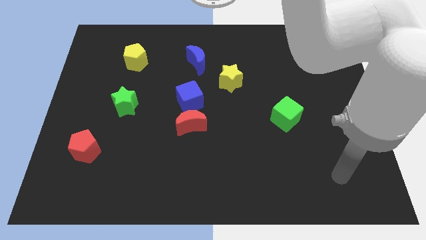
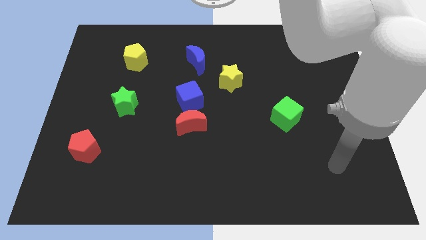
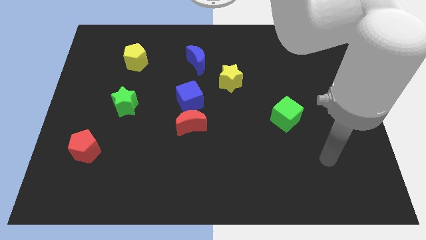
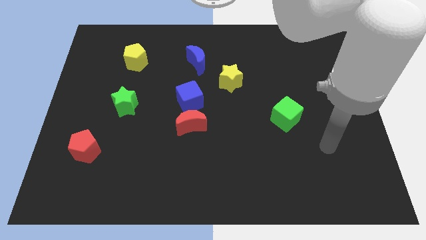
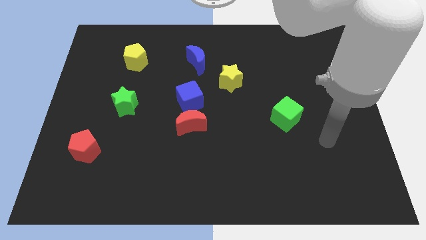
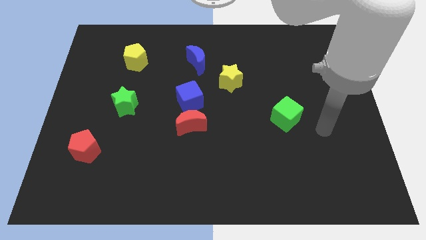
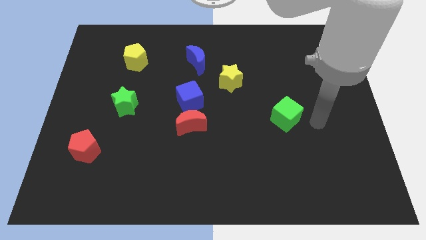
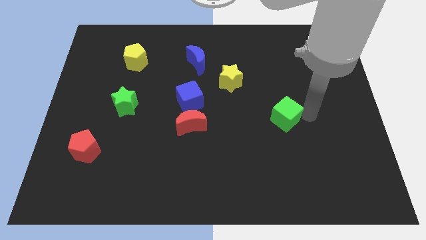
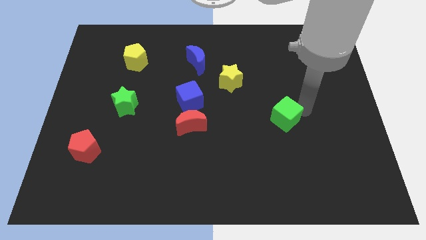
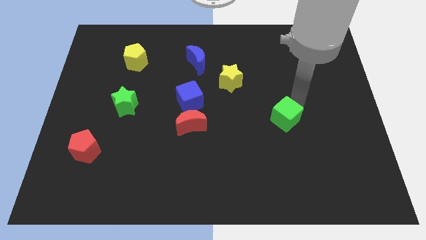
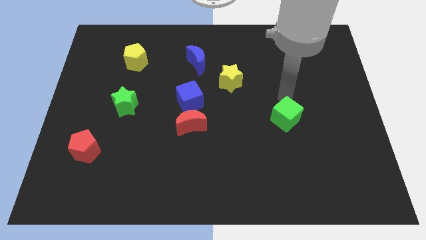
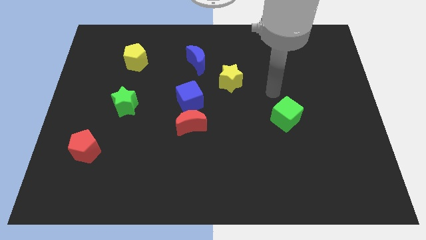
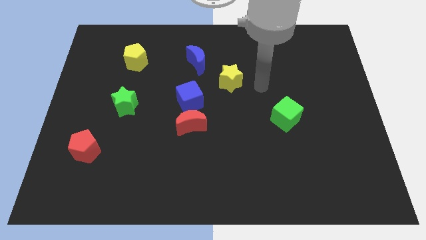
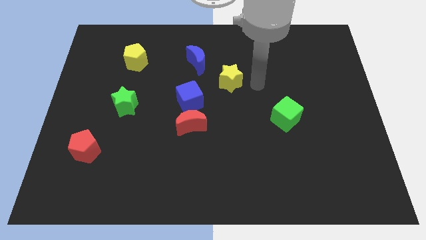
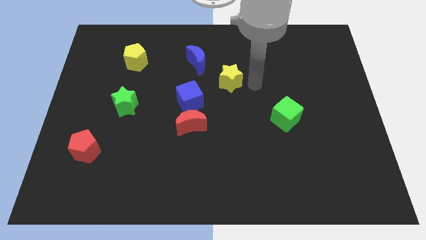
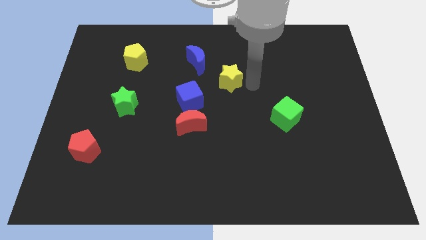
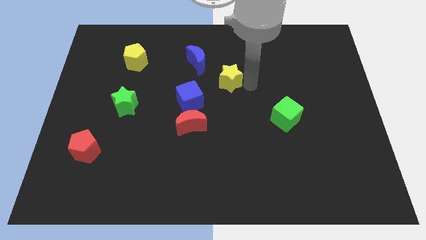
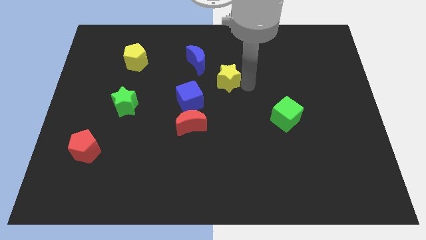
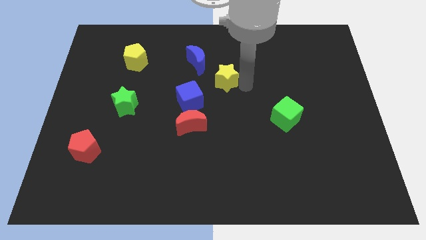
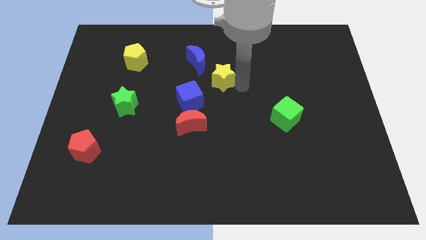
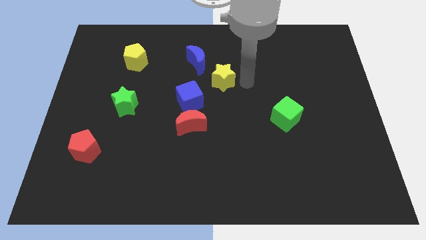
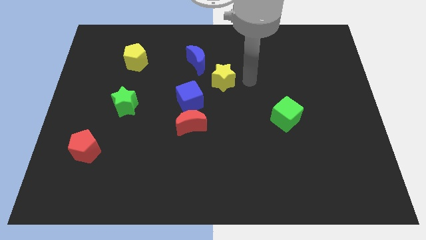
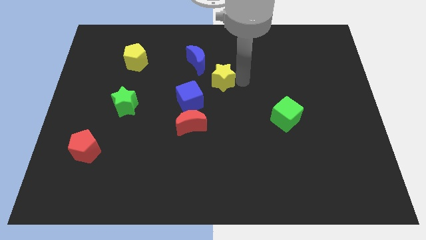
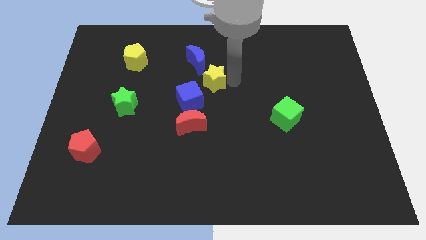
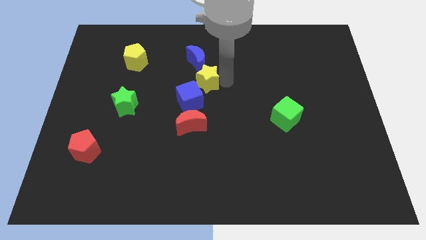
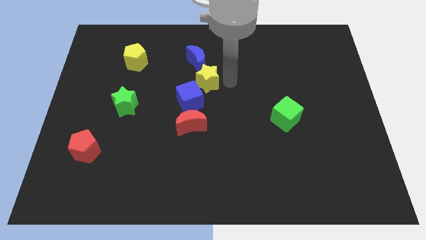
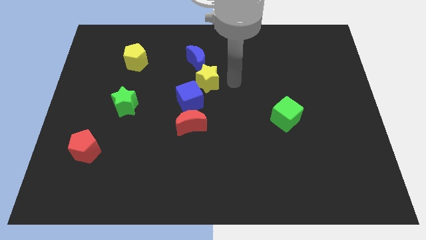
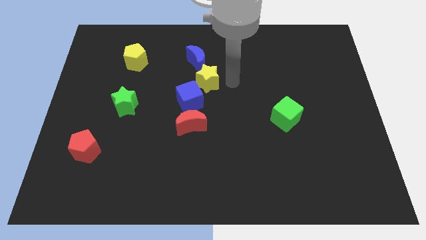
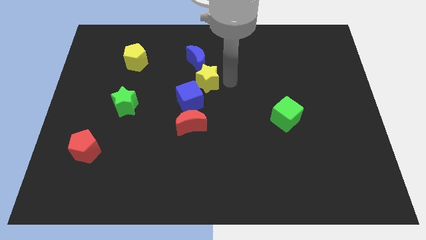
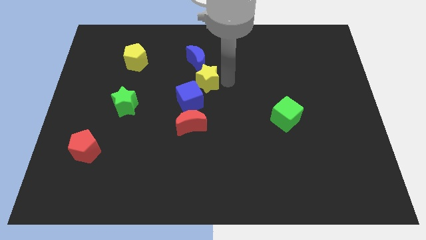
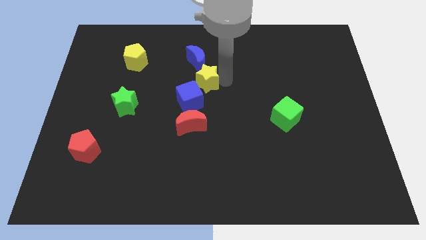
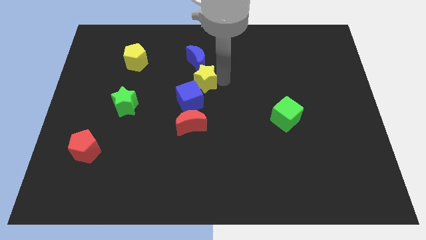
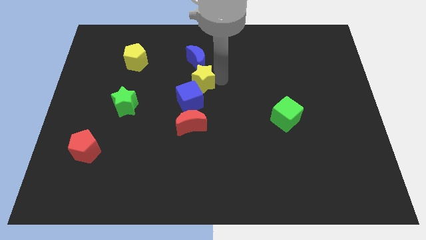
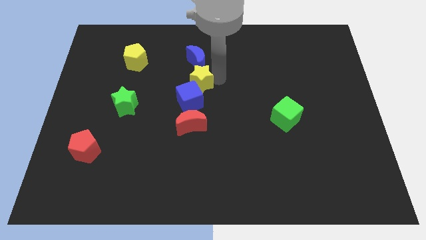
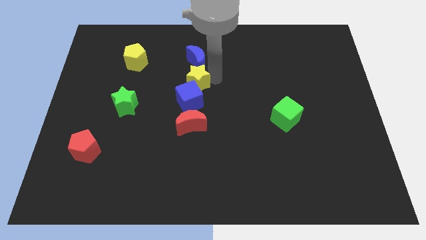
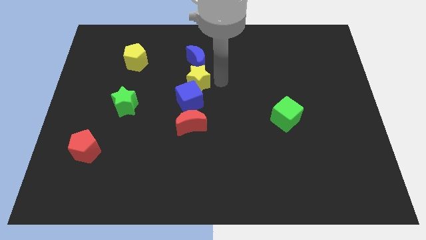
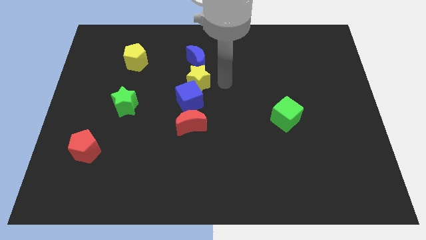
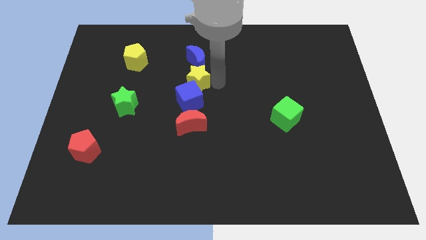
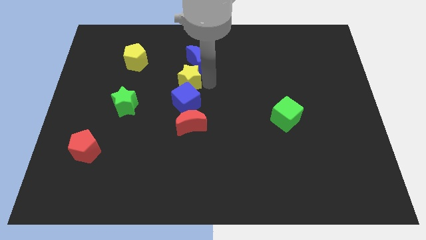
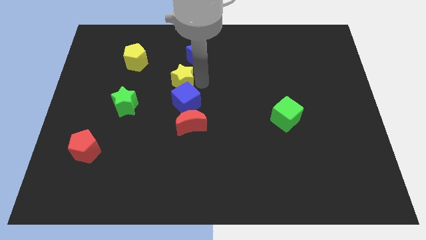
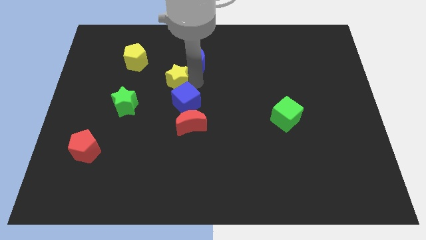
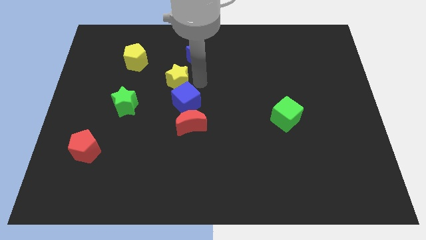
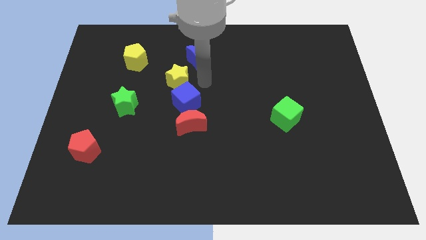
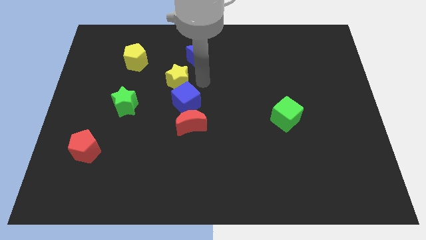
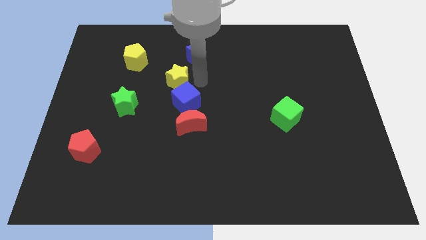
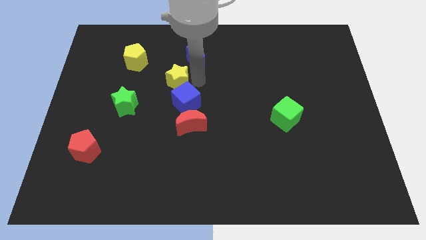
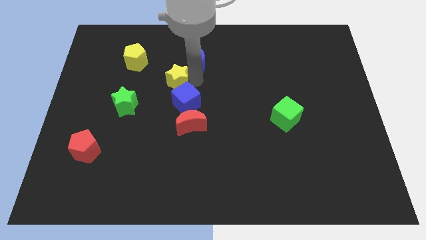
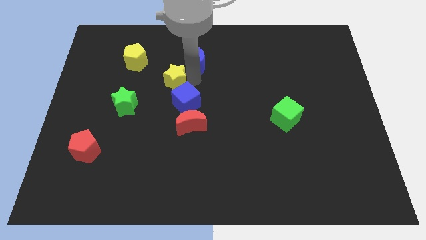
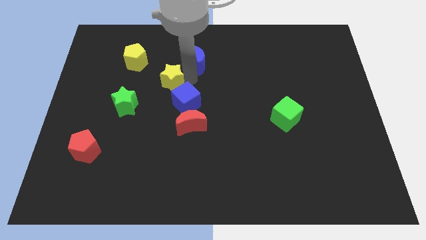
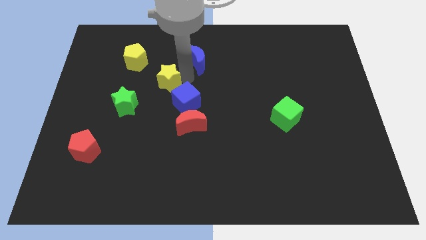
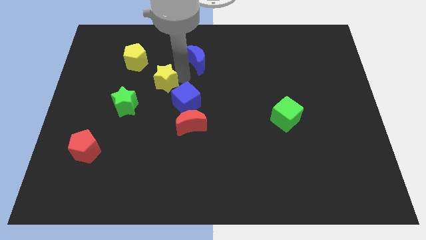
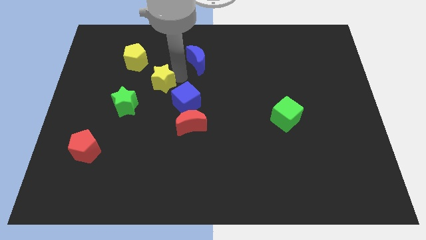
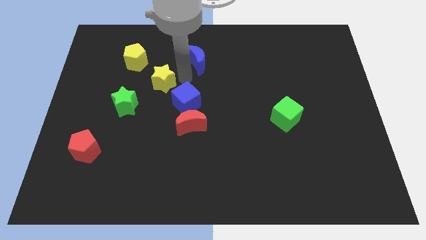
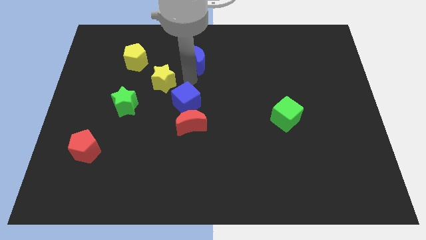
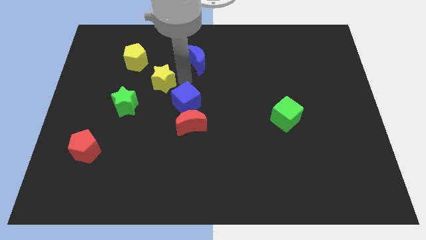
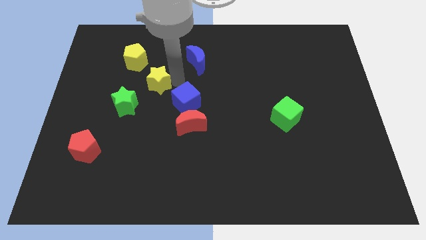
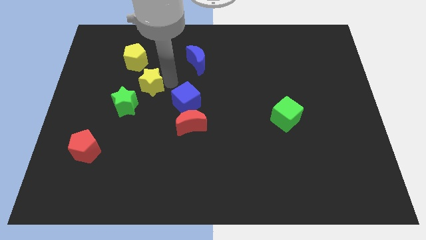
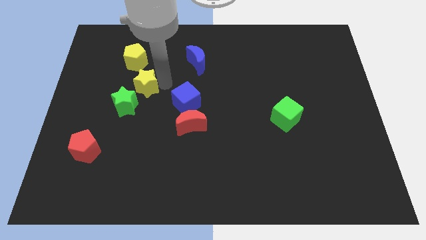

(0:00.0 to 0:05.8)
move the yellow star left

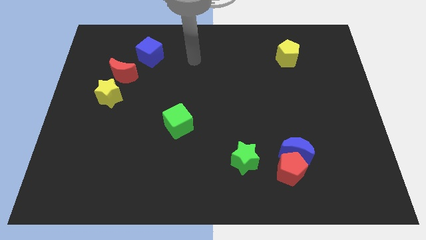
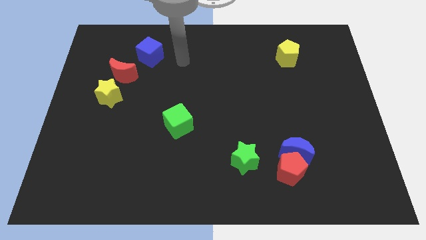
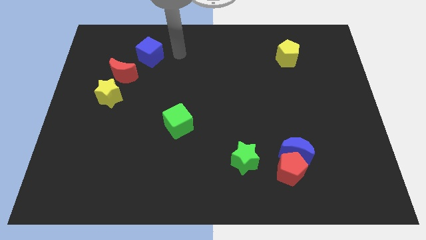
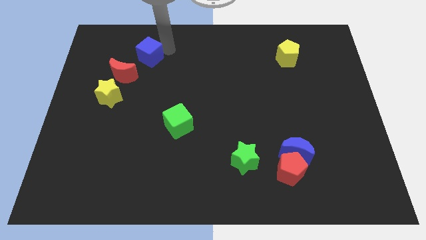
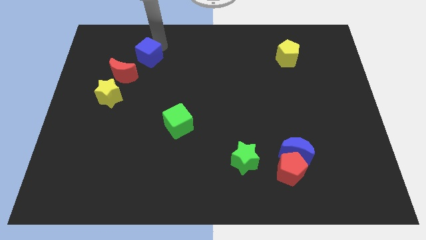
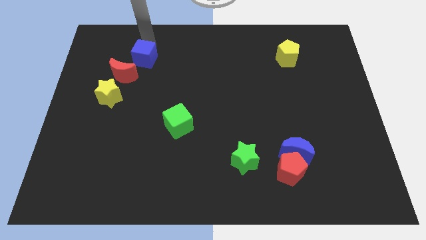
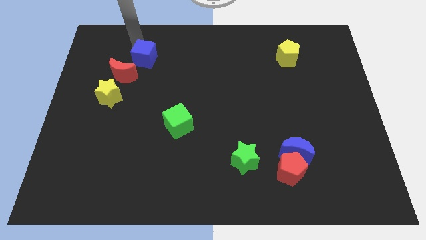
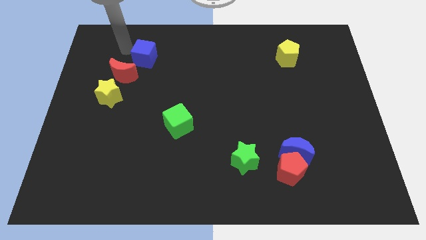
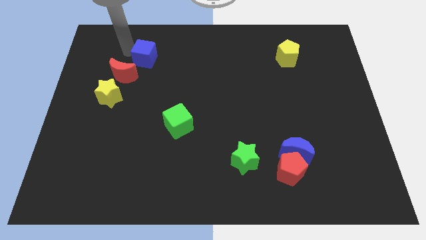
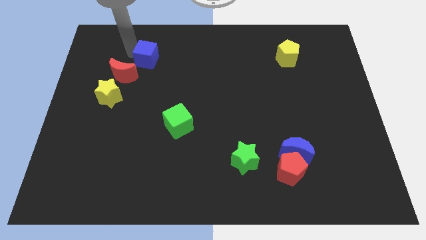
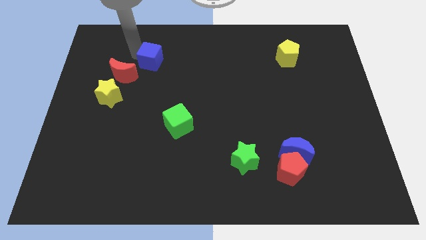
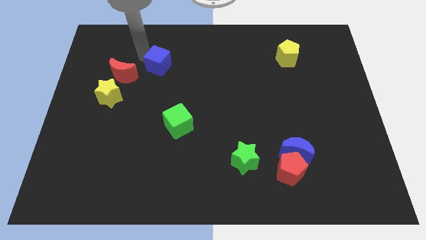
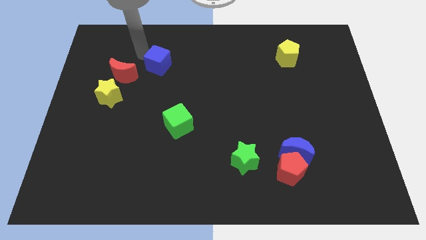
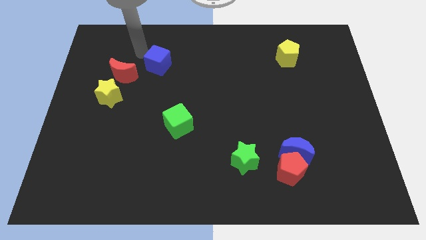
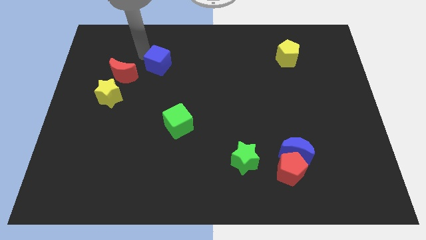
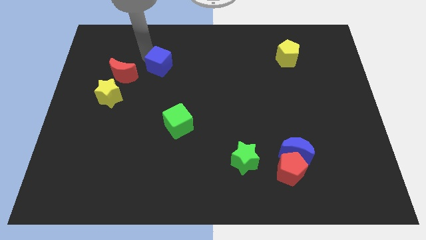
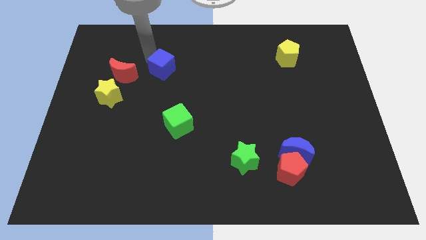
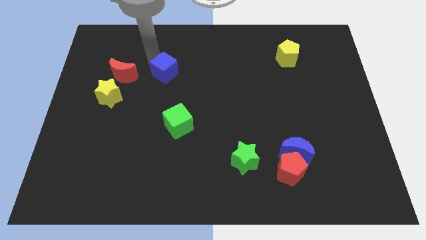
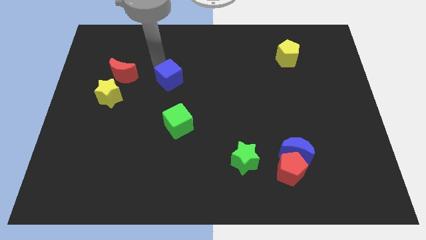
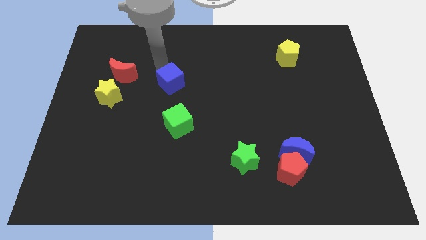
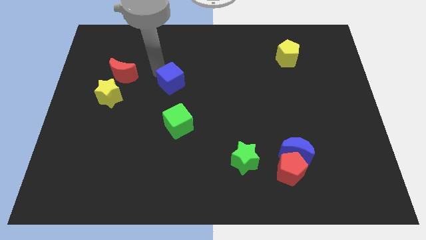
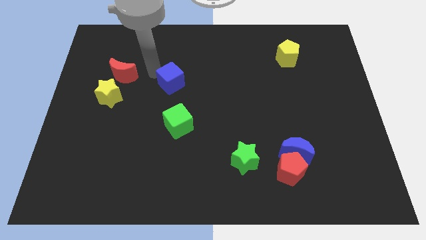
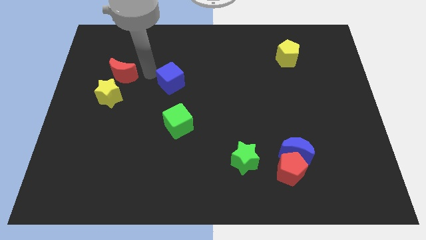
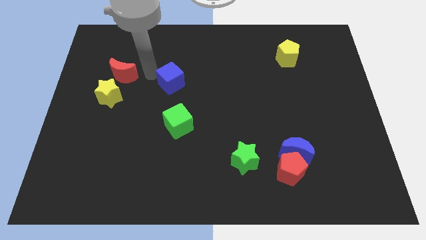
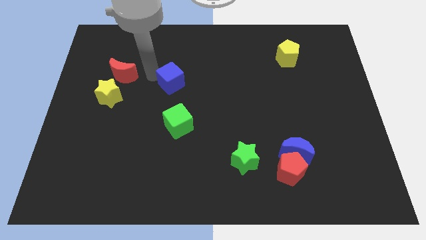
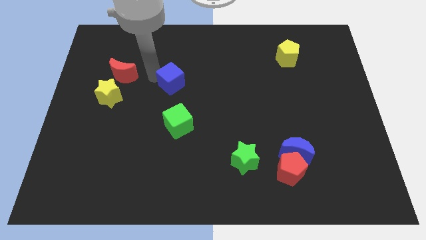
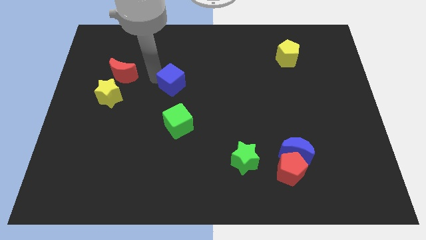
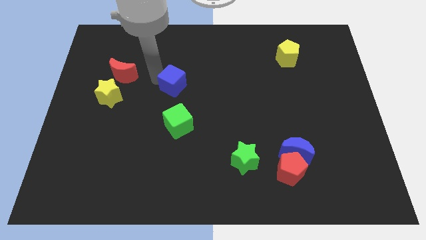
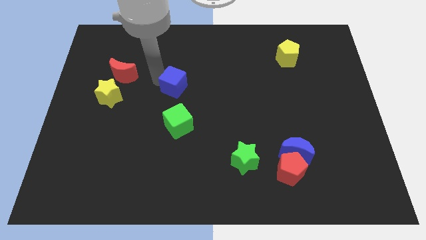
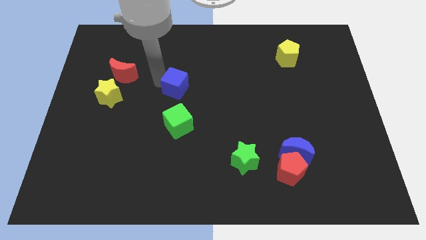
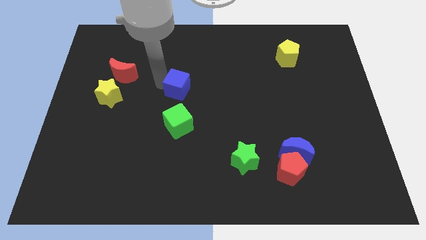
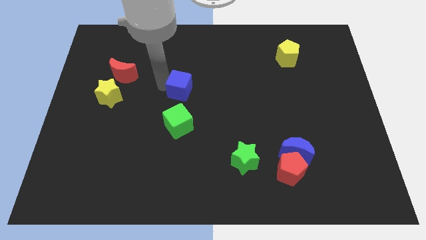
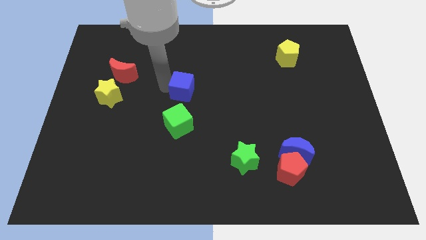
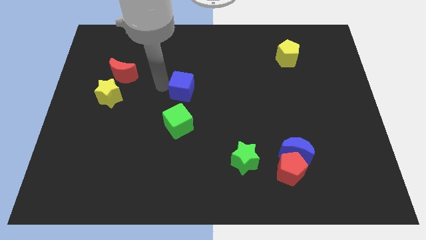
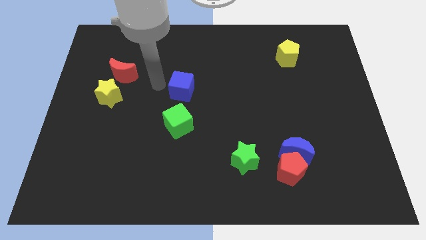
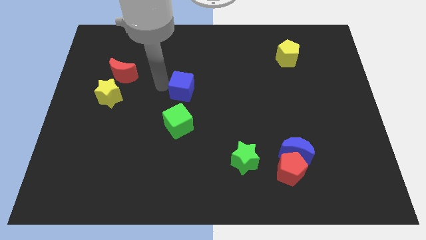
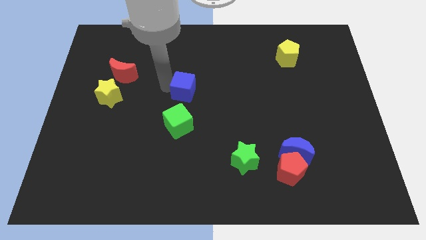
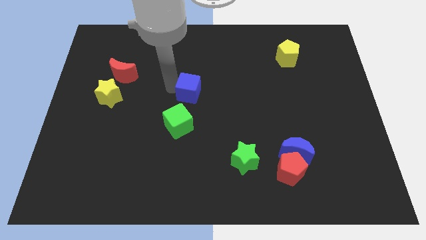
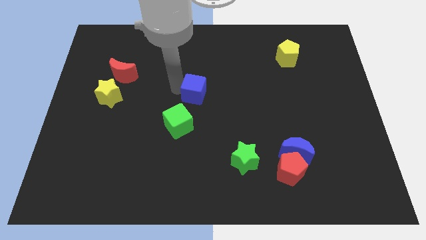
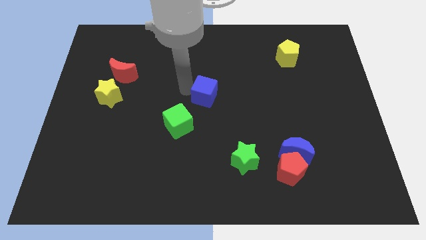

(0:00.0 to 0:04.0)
push the blue cube downwards and to the right
